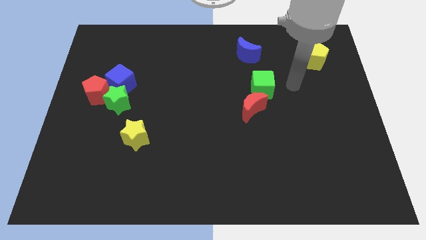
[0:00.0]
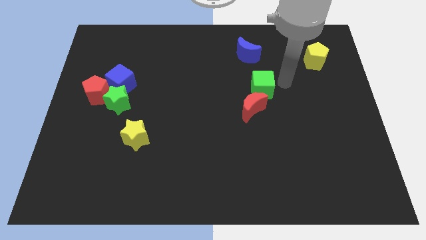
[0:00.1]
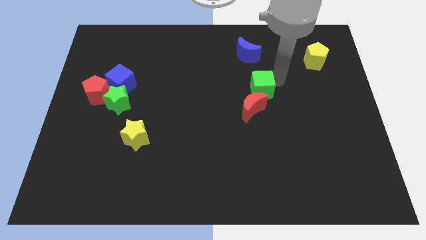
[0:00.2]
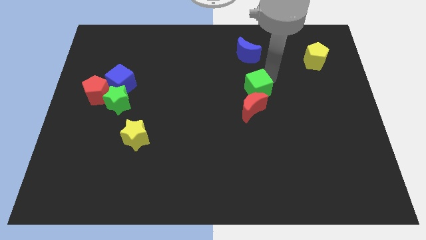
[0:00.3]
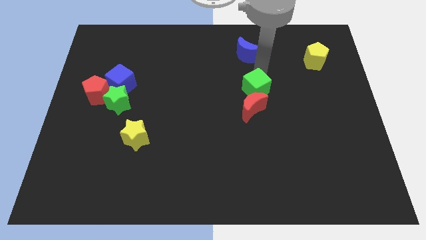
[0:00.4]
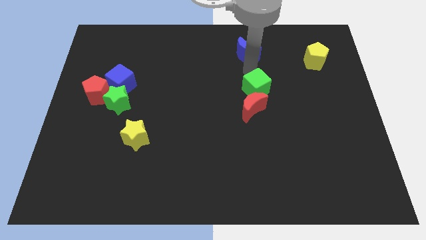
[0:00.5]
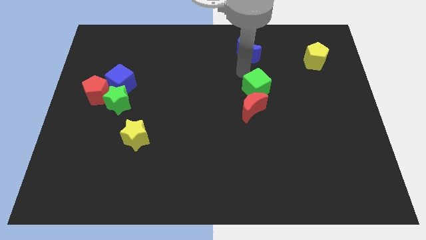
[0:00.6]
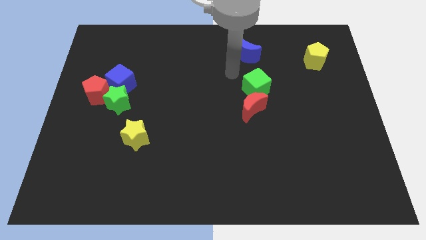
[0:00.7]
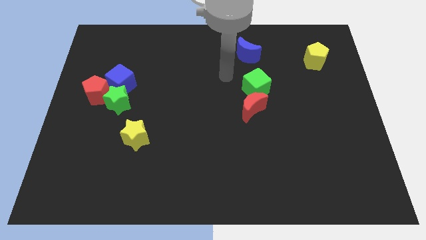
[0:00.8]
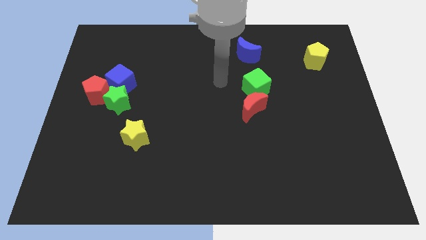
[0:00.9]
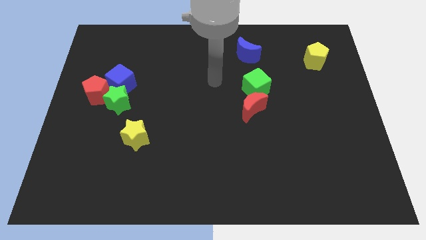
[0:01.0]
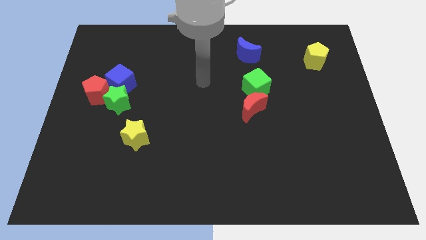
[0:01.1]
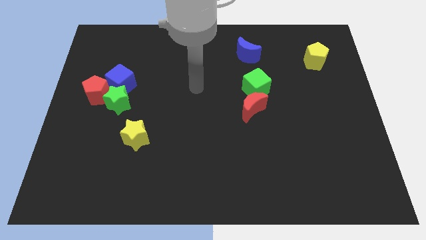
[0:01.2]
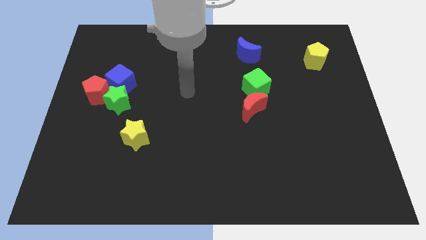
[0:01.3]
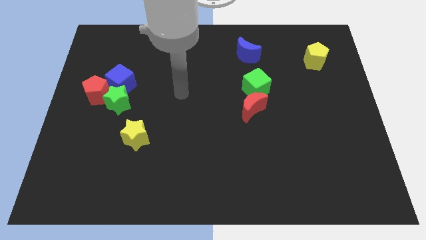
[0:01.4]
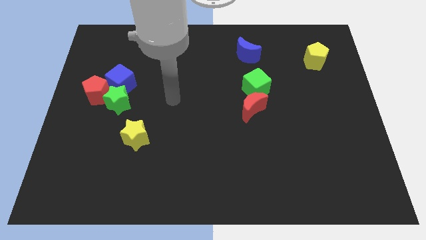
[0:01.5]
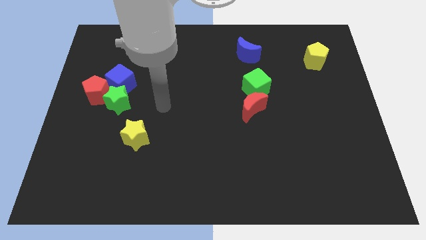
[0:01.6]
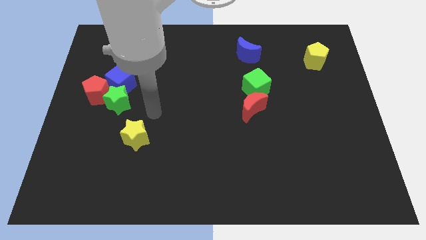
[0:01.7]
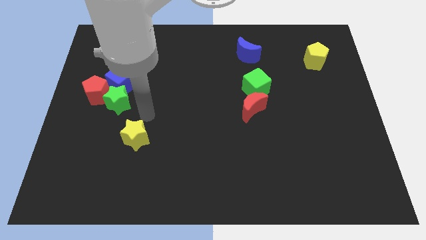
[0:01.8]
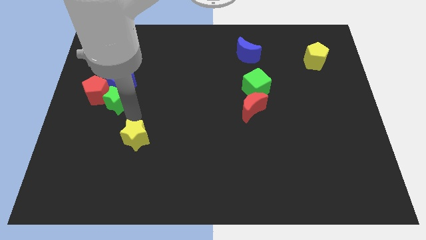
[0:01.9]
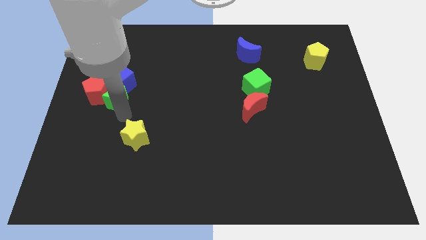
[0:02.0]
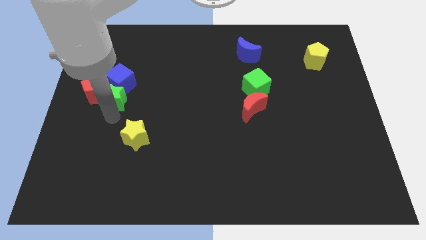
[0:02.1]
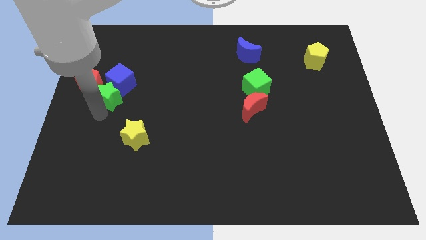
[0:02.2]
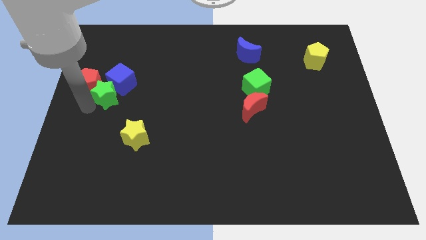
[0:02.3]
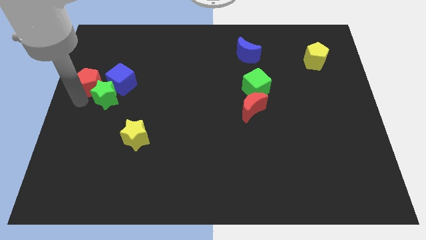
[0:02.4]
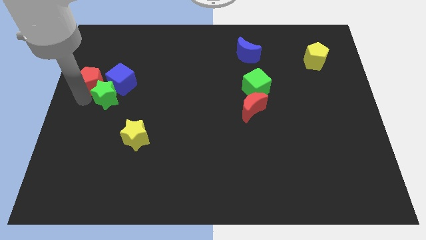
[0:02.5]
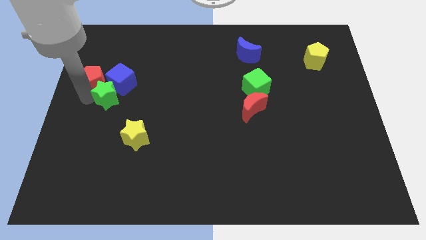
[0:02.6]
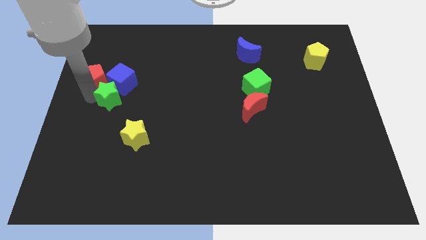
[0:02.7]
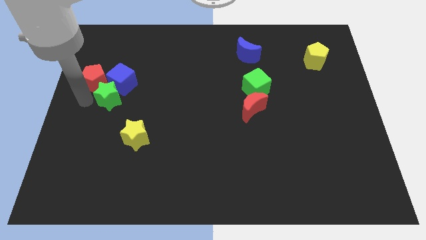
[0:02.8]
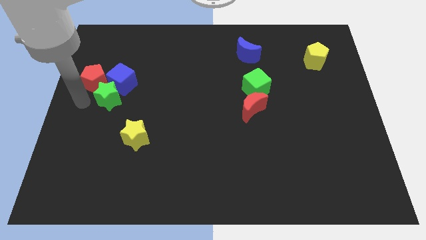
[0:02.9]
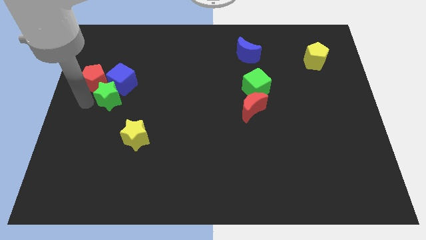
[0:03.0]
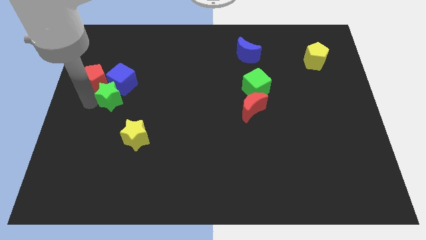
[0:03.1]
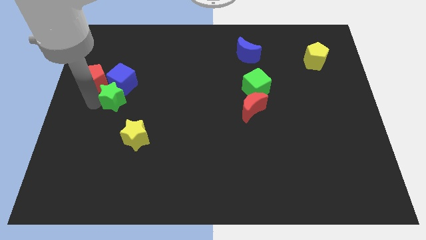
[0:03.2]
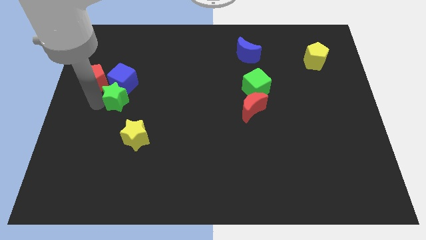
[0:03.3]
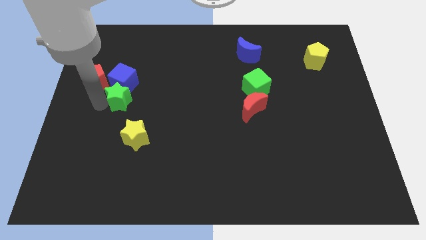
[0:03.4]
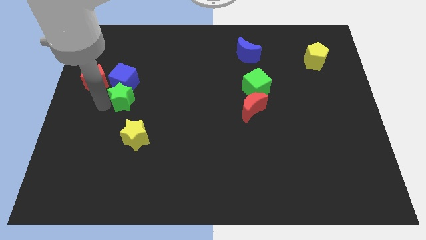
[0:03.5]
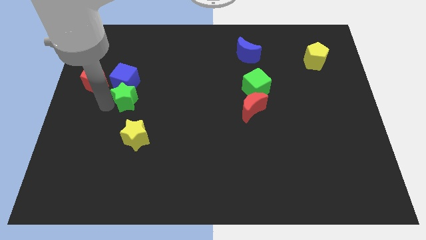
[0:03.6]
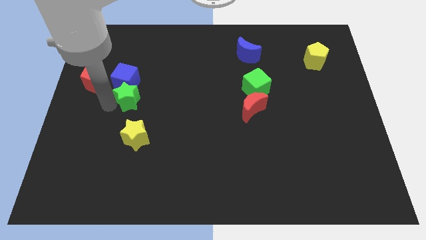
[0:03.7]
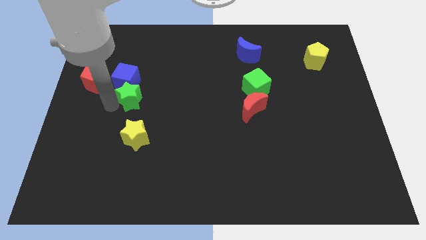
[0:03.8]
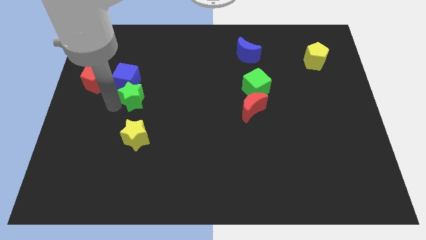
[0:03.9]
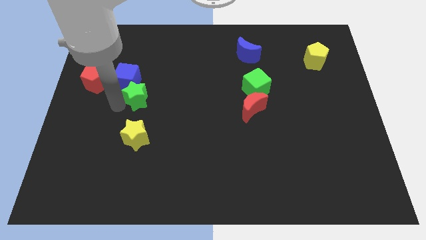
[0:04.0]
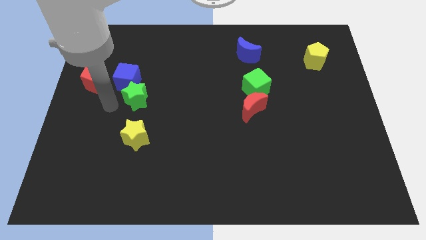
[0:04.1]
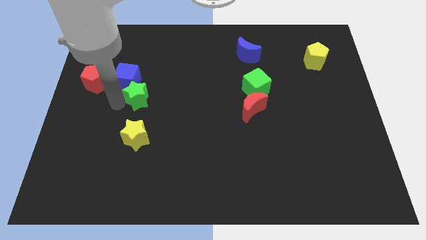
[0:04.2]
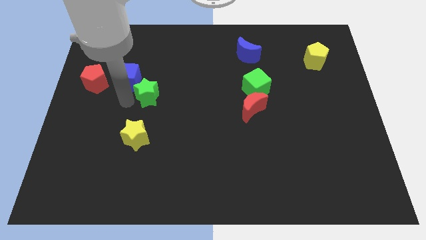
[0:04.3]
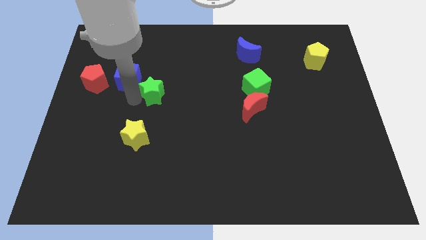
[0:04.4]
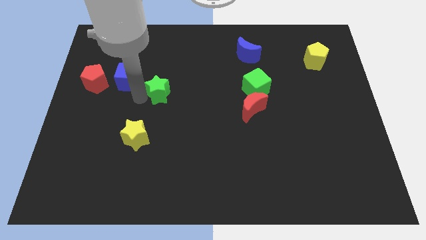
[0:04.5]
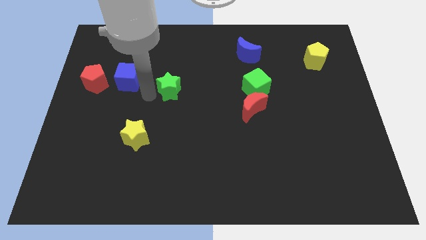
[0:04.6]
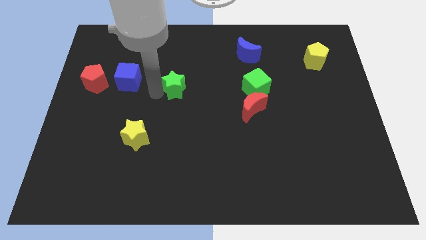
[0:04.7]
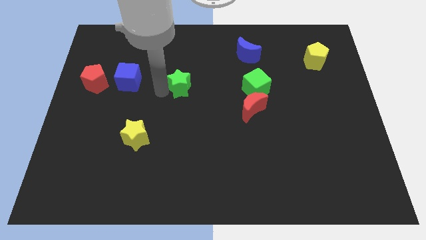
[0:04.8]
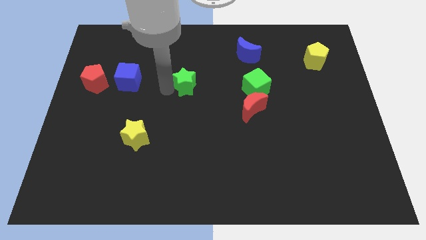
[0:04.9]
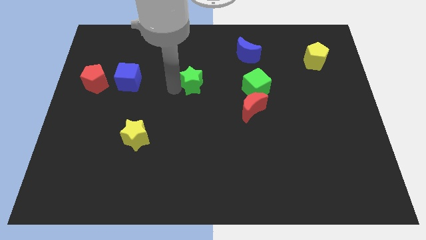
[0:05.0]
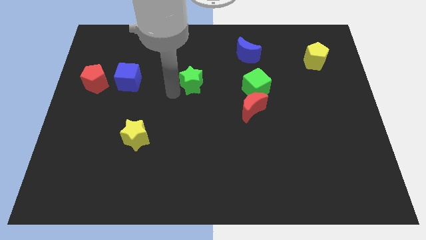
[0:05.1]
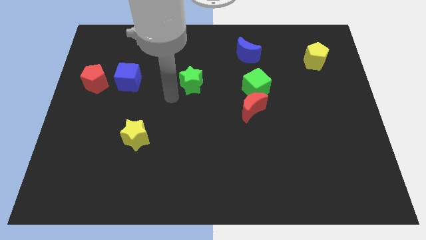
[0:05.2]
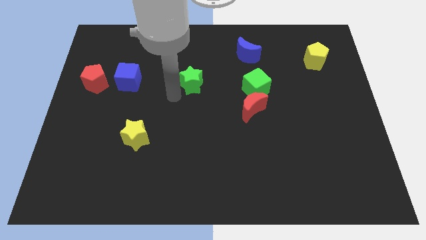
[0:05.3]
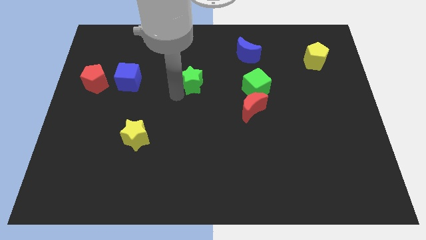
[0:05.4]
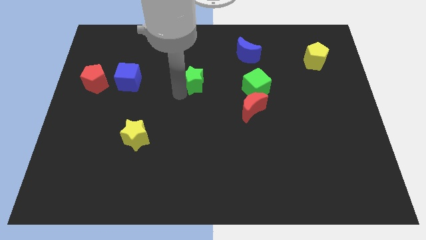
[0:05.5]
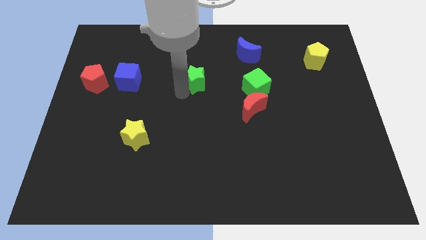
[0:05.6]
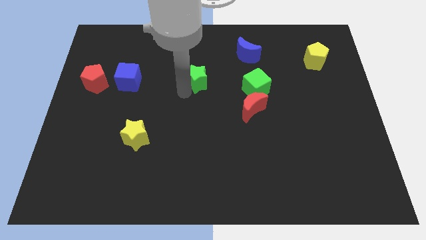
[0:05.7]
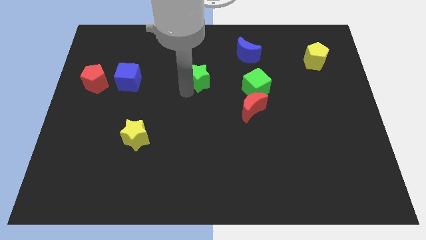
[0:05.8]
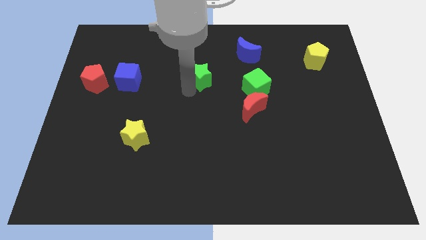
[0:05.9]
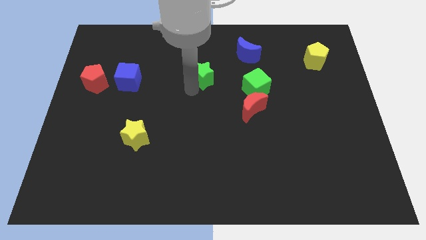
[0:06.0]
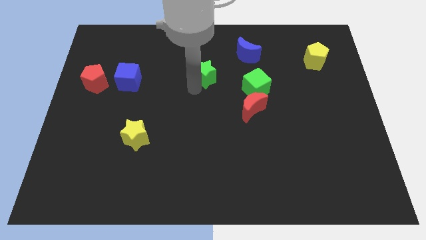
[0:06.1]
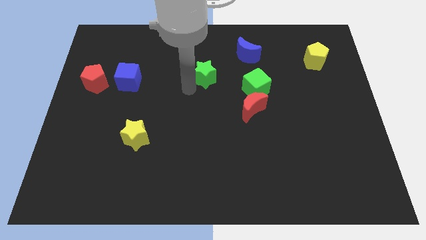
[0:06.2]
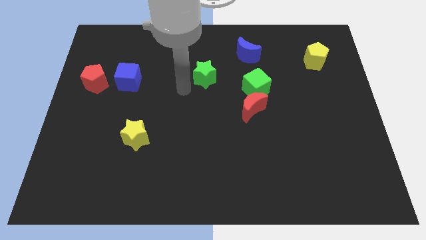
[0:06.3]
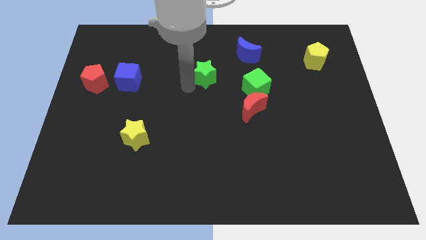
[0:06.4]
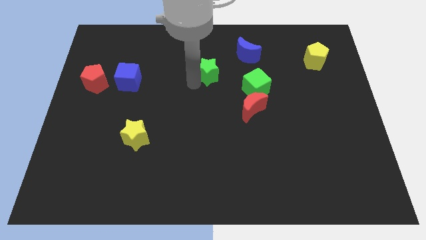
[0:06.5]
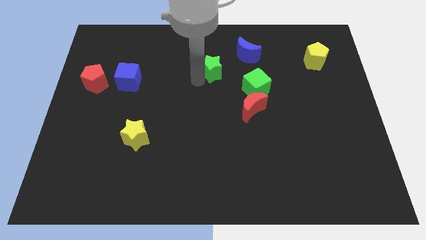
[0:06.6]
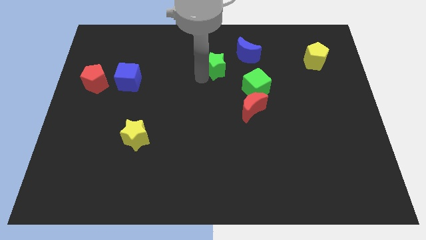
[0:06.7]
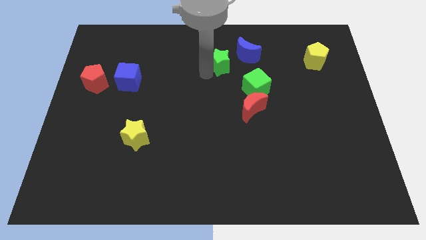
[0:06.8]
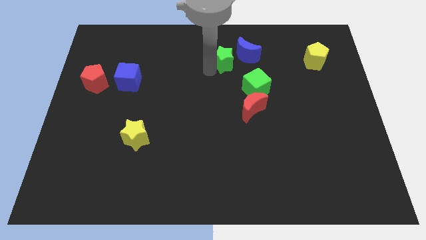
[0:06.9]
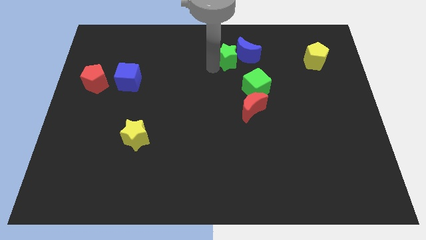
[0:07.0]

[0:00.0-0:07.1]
slide the green star towards the blue moon
